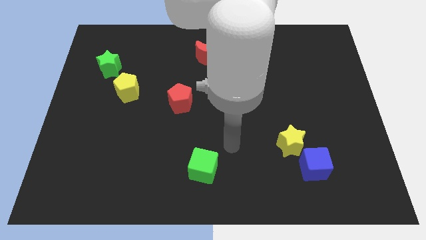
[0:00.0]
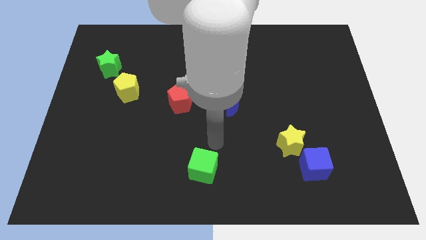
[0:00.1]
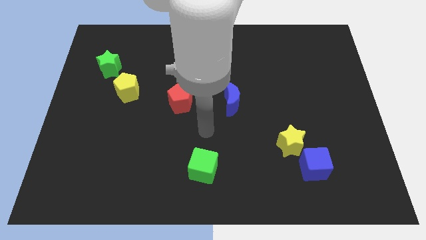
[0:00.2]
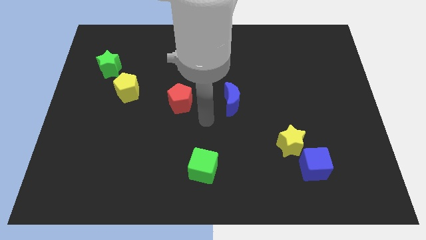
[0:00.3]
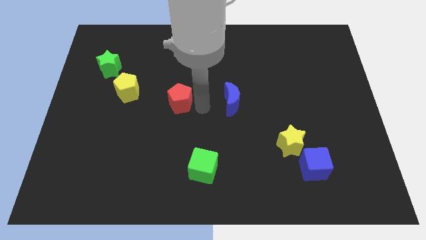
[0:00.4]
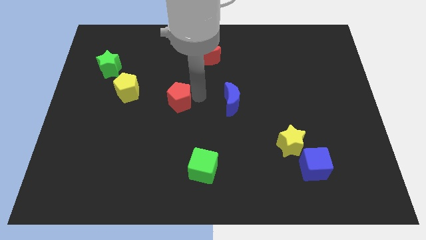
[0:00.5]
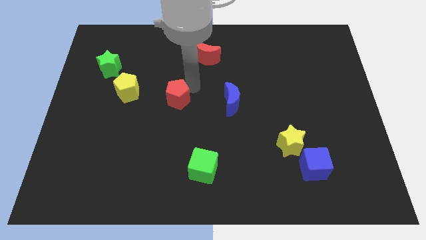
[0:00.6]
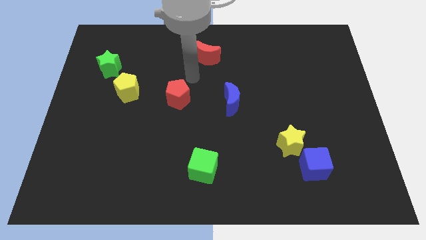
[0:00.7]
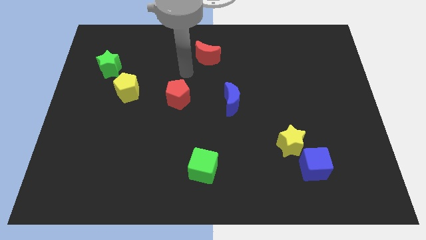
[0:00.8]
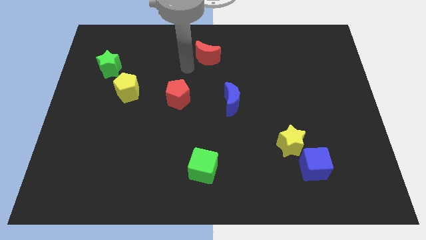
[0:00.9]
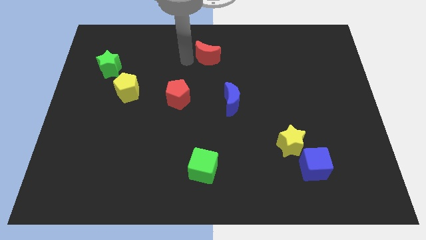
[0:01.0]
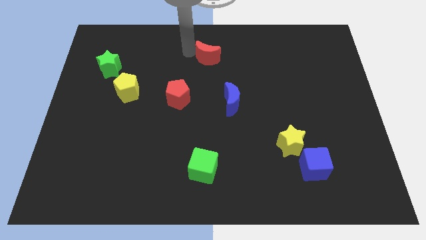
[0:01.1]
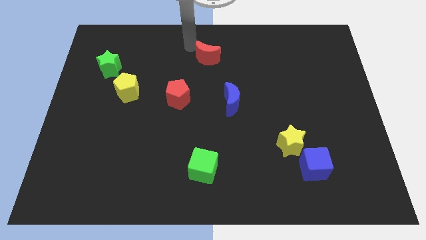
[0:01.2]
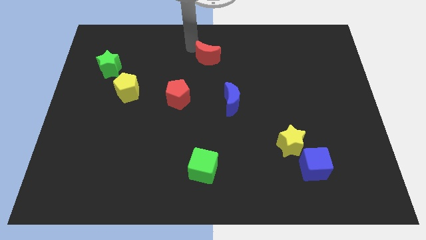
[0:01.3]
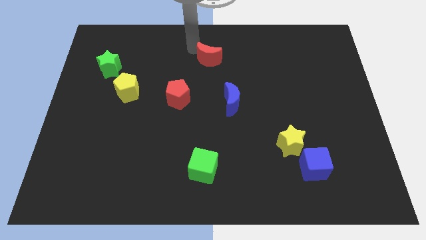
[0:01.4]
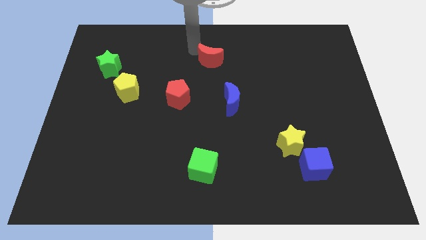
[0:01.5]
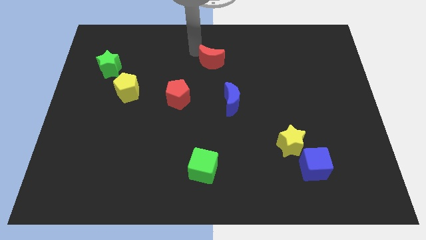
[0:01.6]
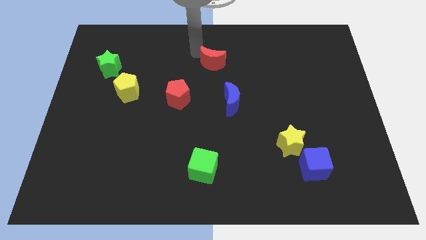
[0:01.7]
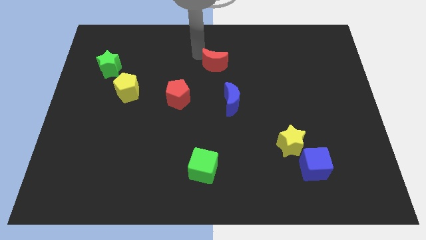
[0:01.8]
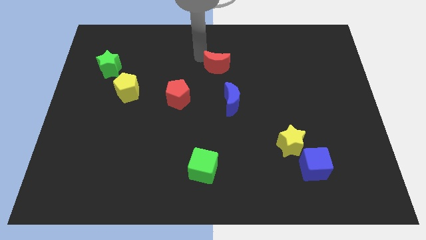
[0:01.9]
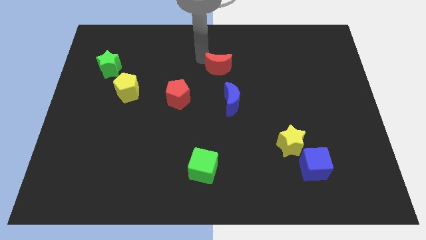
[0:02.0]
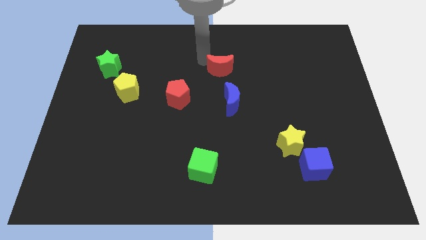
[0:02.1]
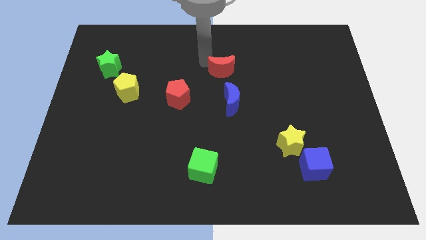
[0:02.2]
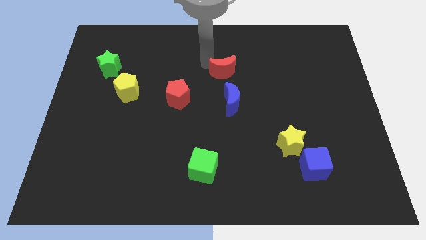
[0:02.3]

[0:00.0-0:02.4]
push the red moon a little down and to the right diagonally

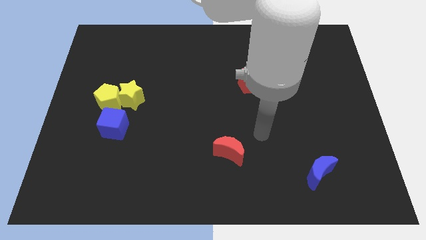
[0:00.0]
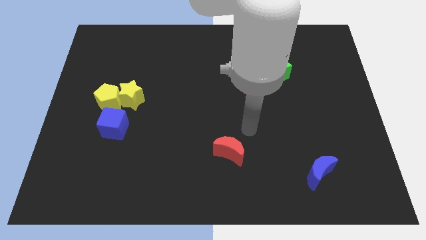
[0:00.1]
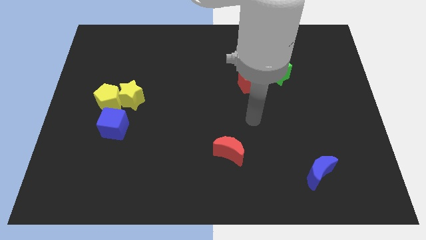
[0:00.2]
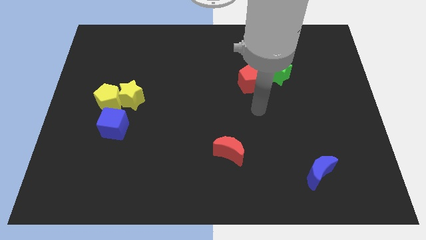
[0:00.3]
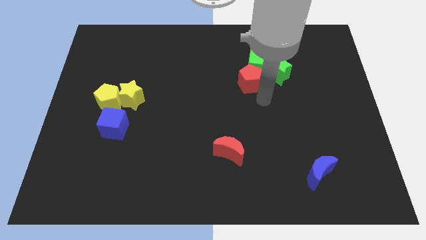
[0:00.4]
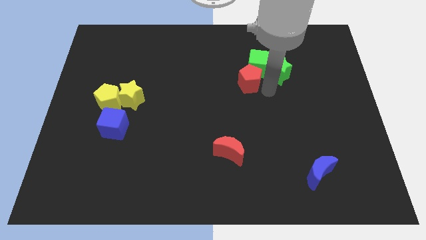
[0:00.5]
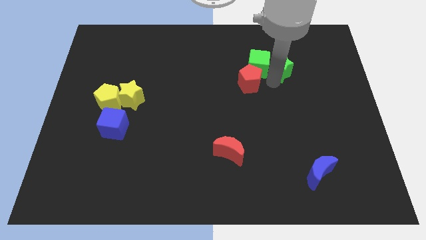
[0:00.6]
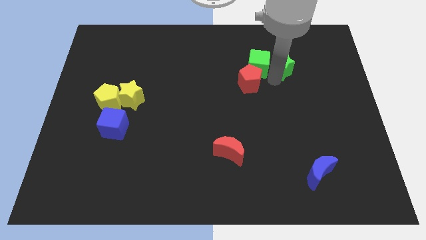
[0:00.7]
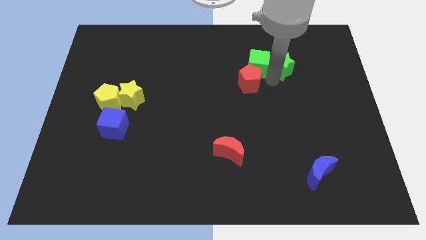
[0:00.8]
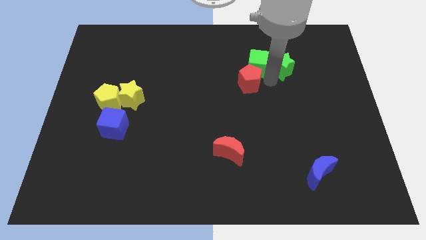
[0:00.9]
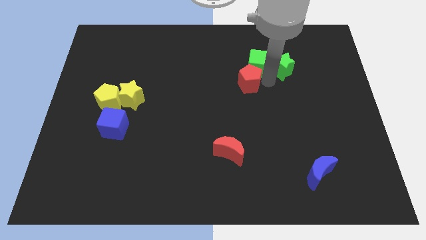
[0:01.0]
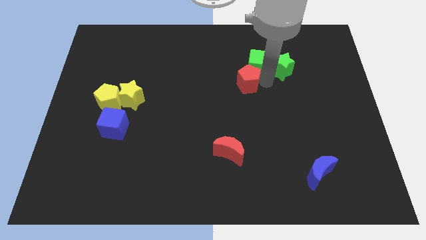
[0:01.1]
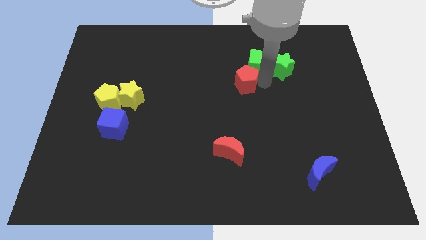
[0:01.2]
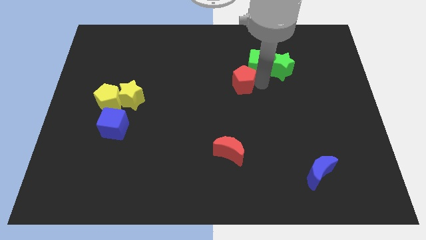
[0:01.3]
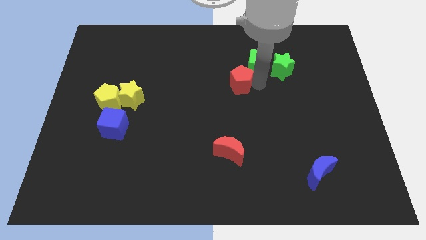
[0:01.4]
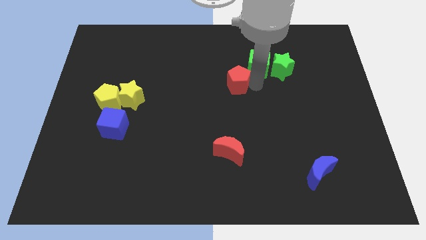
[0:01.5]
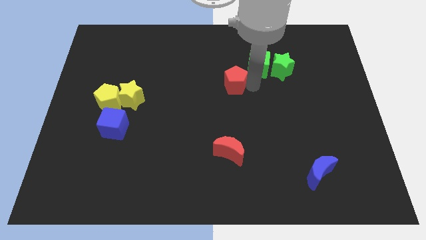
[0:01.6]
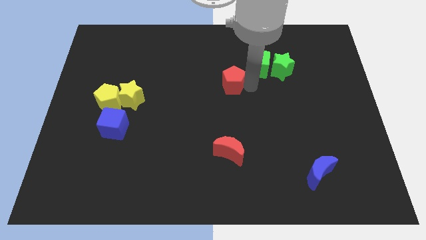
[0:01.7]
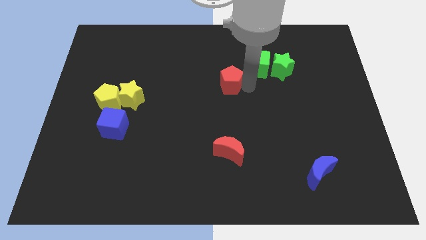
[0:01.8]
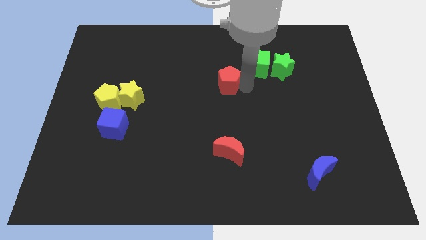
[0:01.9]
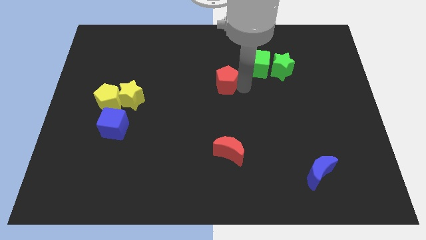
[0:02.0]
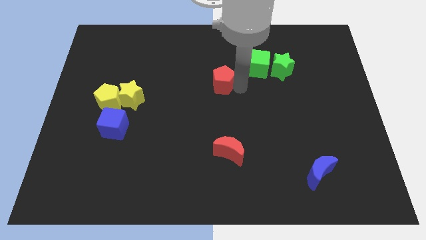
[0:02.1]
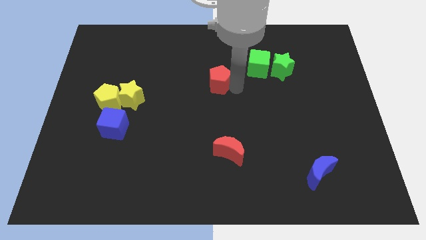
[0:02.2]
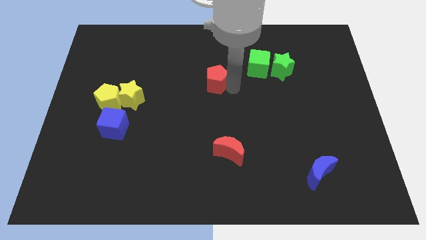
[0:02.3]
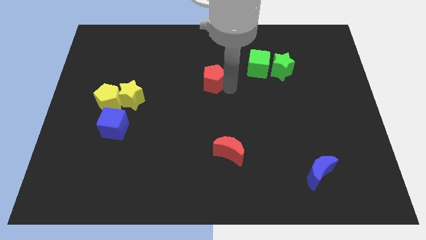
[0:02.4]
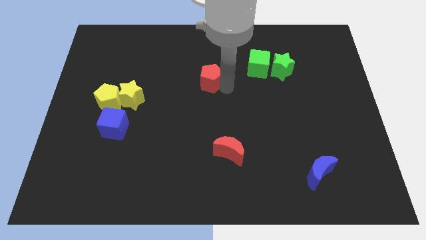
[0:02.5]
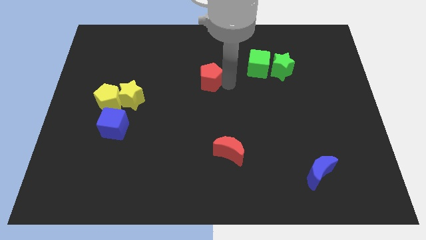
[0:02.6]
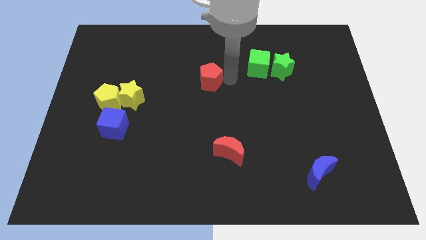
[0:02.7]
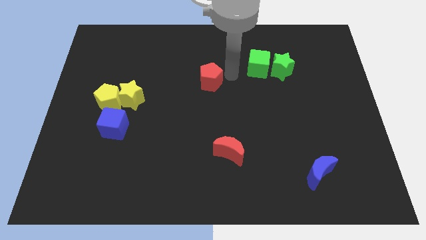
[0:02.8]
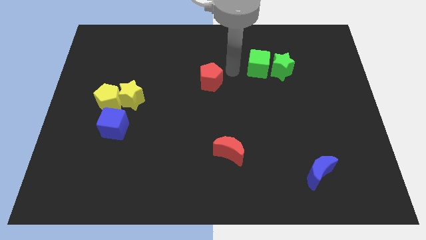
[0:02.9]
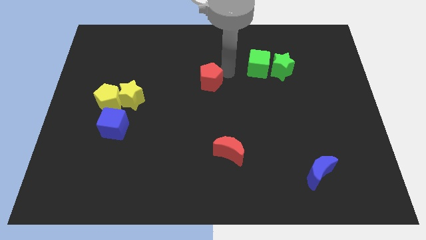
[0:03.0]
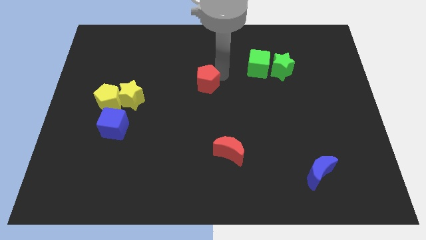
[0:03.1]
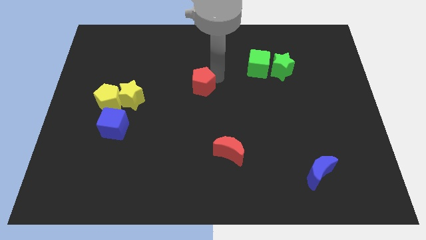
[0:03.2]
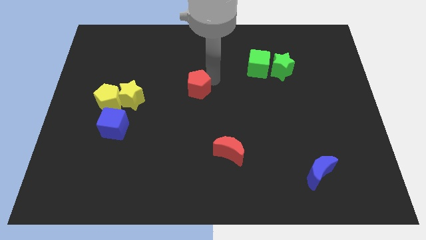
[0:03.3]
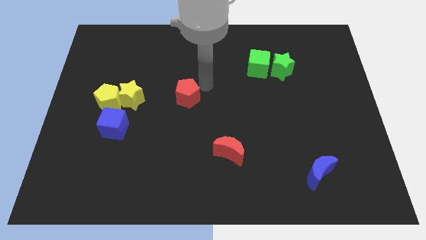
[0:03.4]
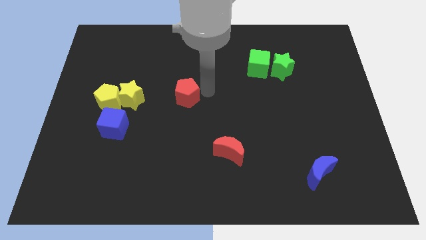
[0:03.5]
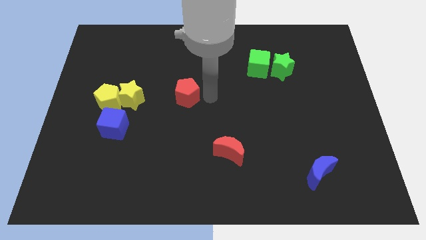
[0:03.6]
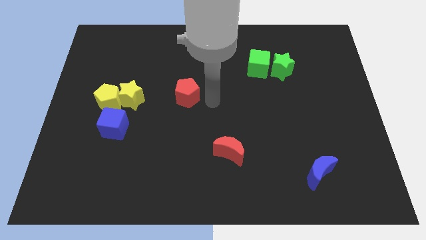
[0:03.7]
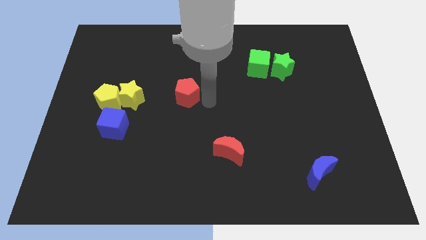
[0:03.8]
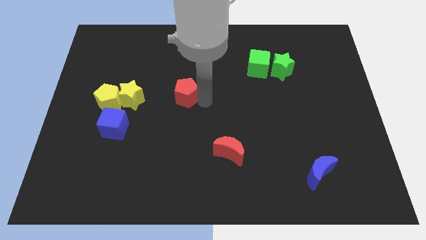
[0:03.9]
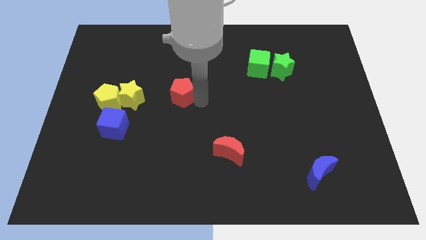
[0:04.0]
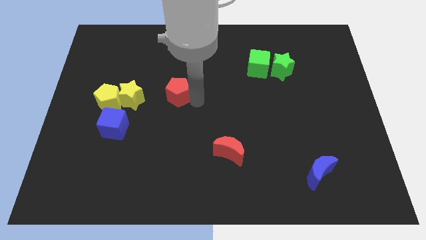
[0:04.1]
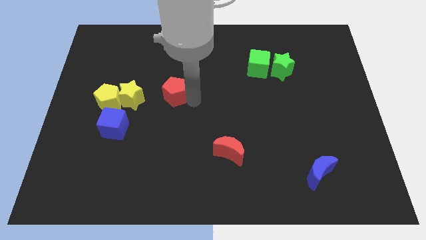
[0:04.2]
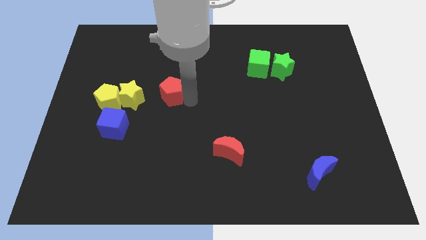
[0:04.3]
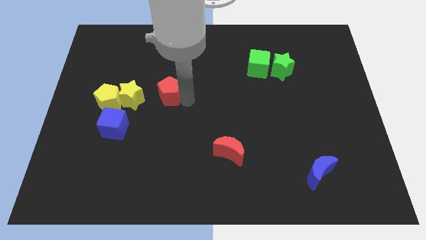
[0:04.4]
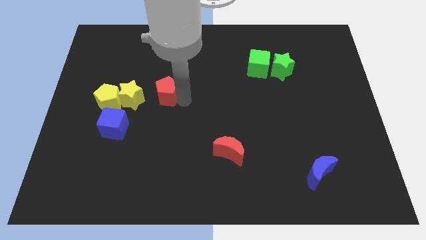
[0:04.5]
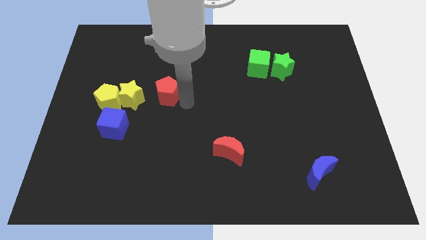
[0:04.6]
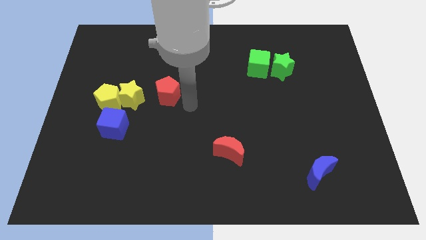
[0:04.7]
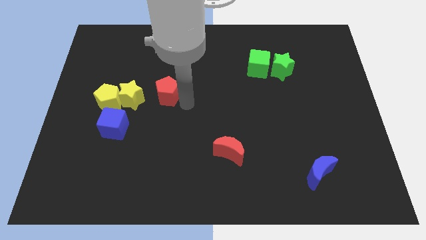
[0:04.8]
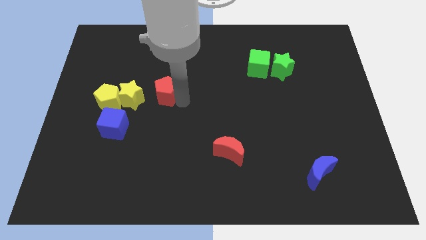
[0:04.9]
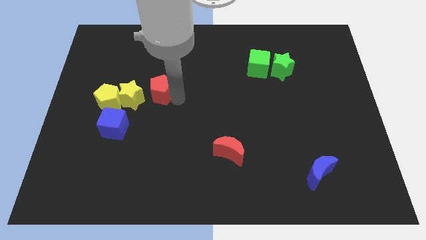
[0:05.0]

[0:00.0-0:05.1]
move the red pentagon to the left

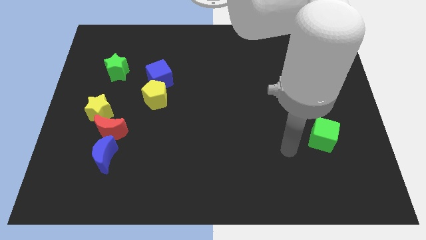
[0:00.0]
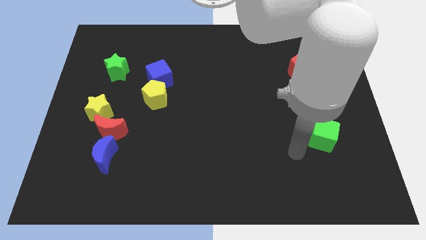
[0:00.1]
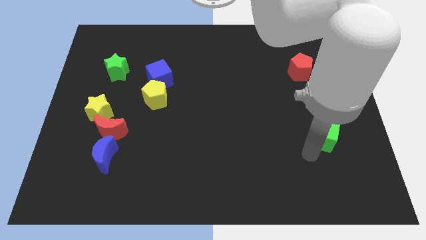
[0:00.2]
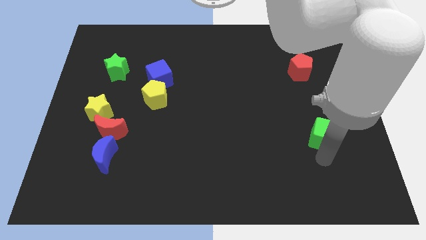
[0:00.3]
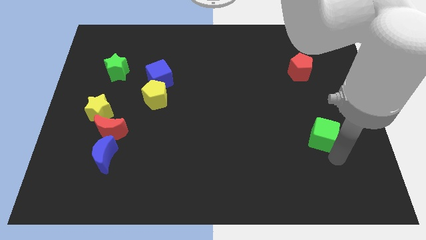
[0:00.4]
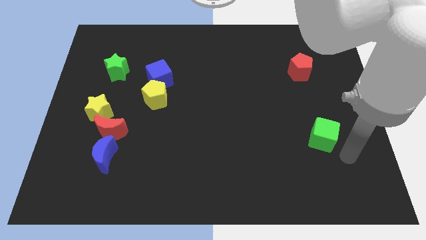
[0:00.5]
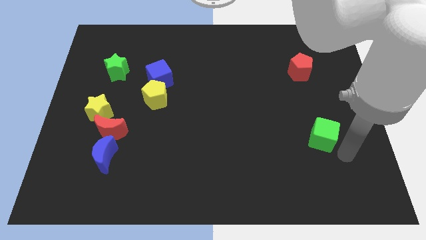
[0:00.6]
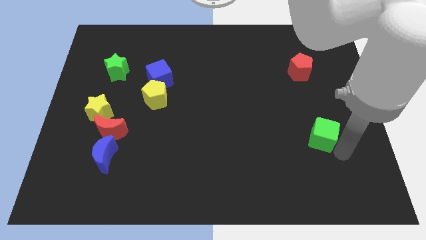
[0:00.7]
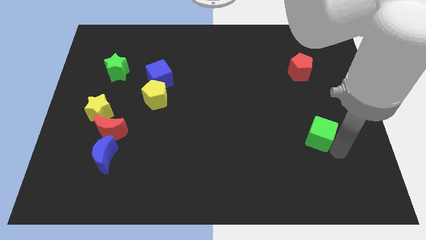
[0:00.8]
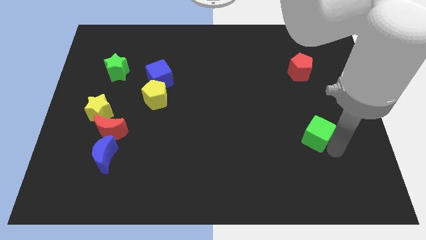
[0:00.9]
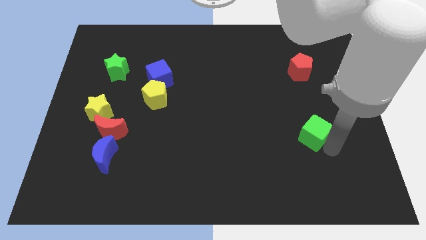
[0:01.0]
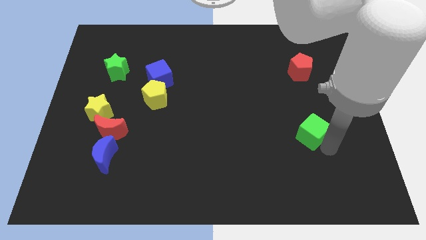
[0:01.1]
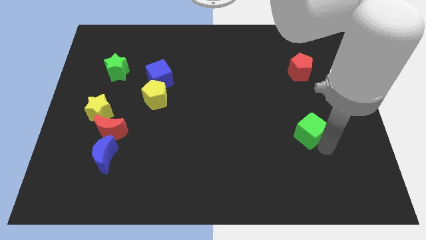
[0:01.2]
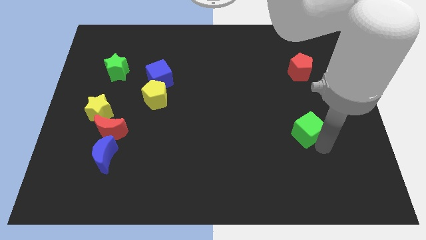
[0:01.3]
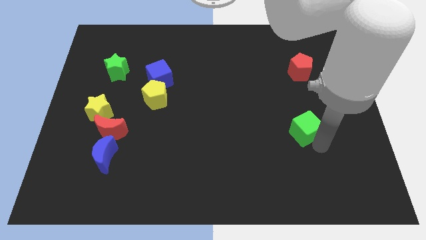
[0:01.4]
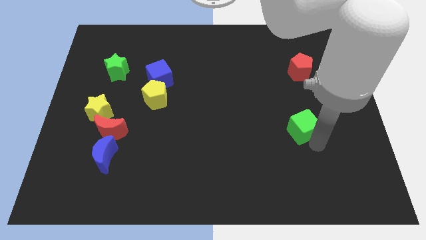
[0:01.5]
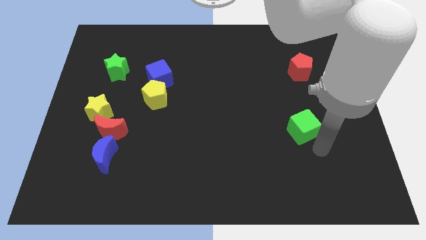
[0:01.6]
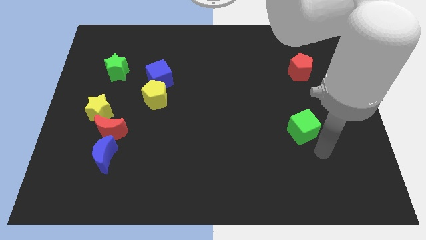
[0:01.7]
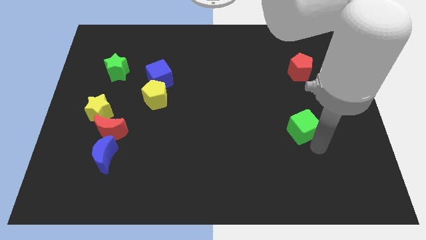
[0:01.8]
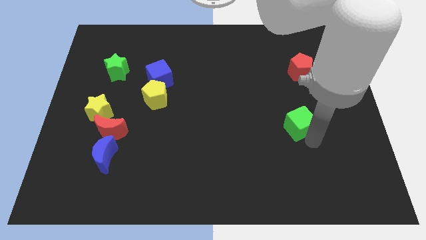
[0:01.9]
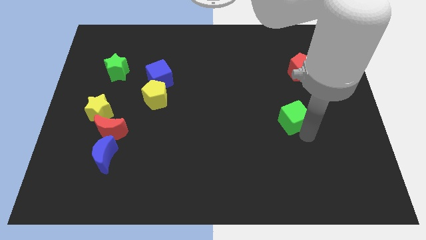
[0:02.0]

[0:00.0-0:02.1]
push the green cube up and then left slightly
